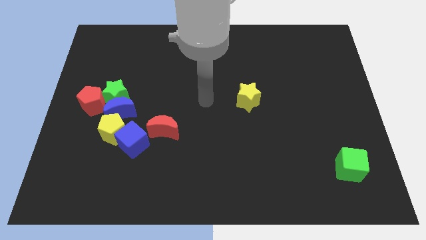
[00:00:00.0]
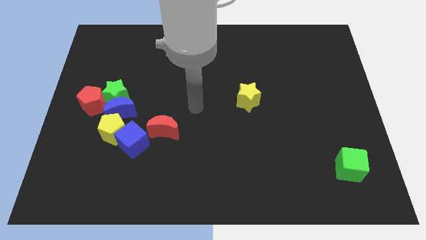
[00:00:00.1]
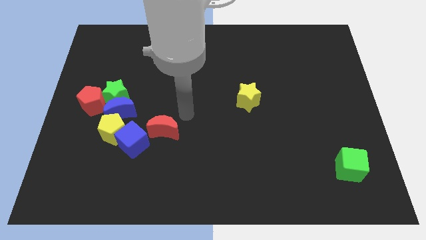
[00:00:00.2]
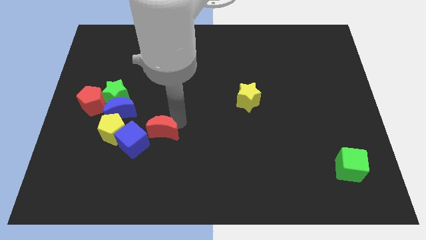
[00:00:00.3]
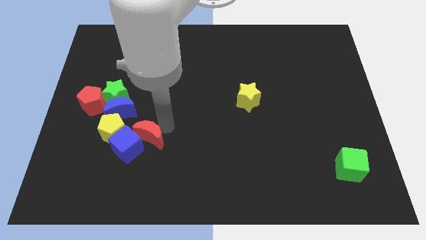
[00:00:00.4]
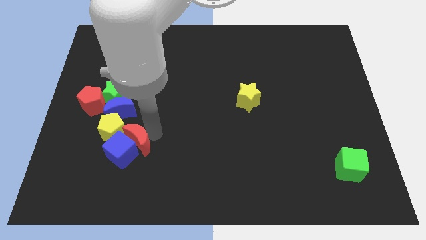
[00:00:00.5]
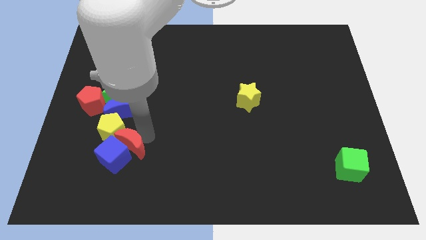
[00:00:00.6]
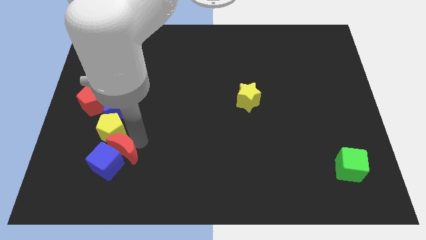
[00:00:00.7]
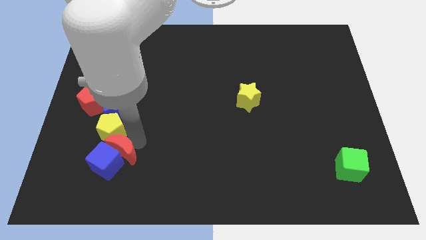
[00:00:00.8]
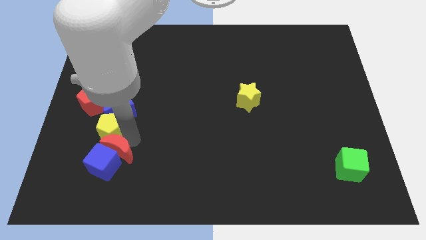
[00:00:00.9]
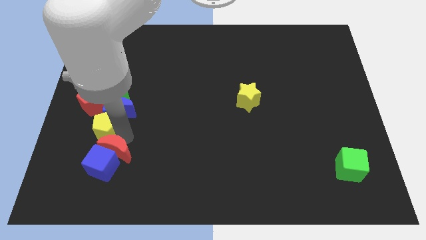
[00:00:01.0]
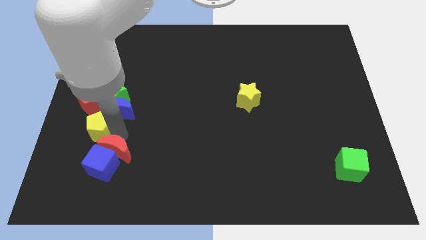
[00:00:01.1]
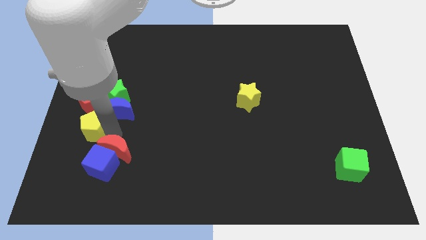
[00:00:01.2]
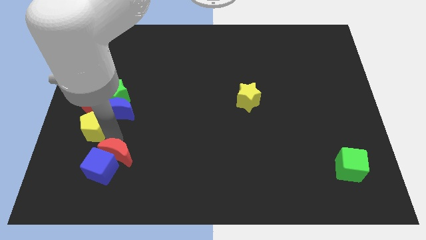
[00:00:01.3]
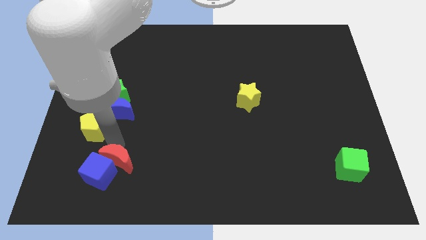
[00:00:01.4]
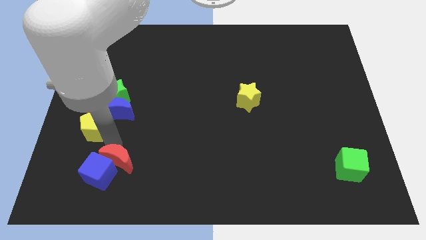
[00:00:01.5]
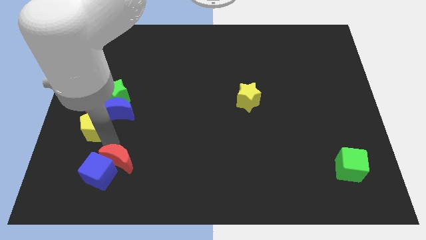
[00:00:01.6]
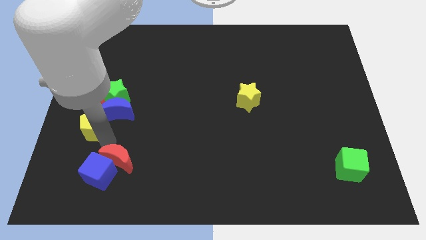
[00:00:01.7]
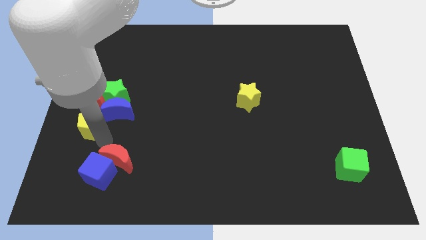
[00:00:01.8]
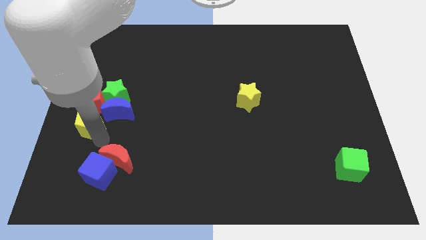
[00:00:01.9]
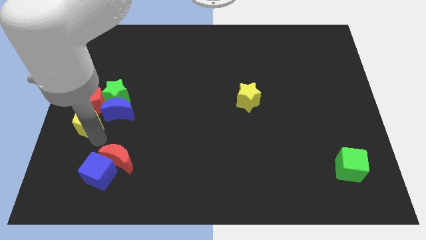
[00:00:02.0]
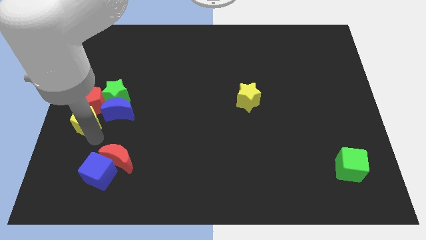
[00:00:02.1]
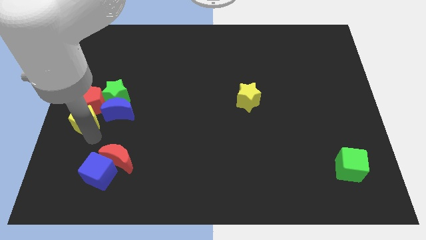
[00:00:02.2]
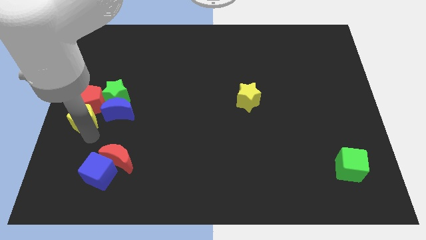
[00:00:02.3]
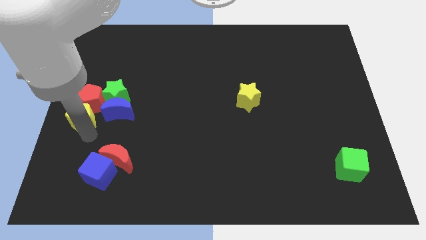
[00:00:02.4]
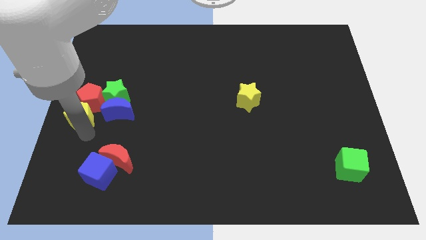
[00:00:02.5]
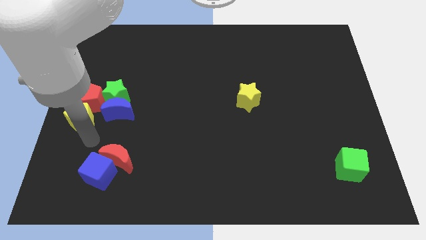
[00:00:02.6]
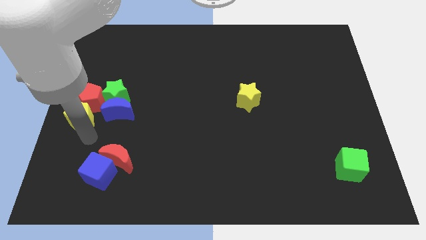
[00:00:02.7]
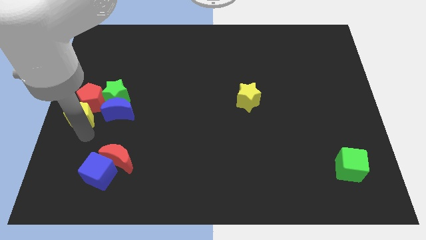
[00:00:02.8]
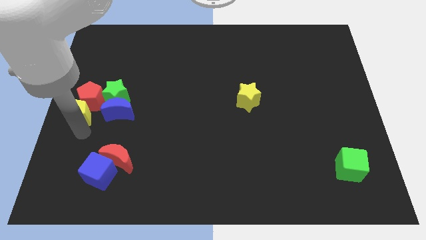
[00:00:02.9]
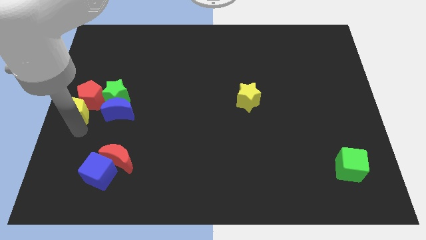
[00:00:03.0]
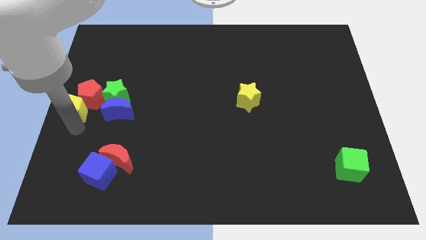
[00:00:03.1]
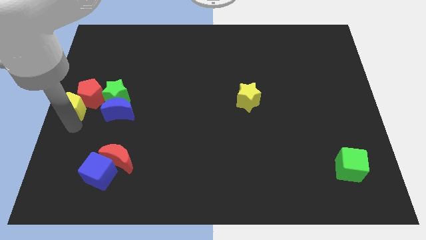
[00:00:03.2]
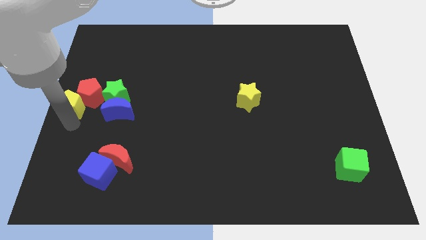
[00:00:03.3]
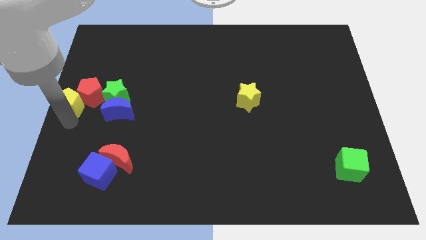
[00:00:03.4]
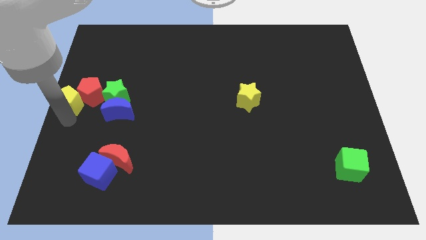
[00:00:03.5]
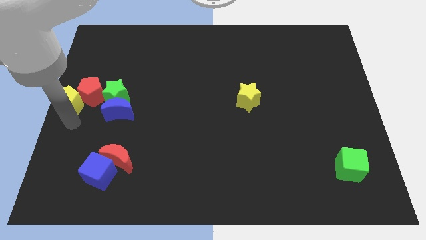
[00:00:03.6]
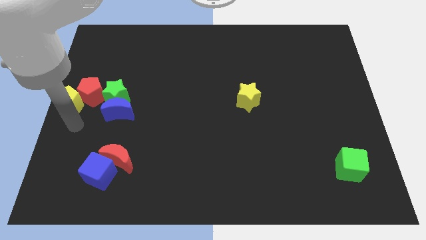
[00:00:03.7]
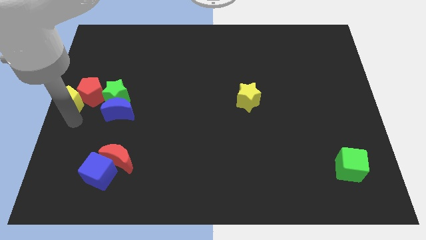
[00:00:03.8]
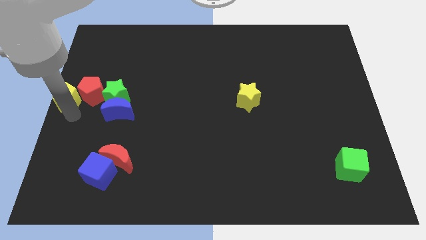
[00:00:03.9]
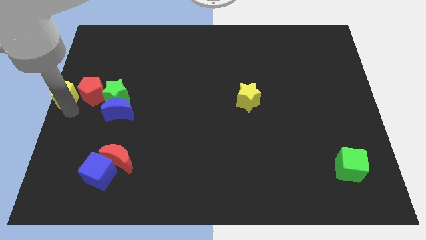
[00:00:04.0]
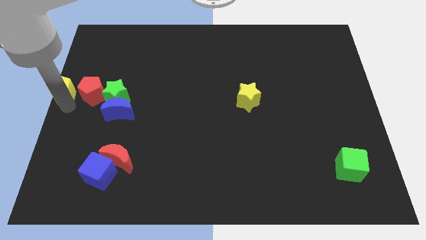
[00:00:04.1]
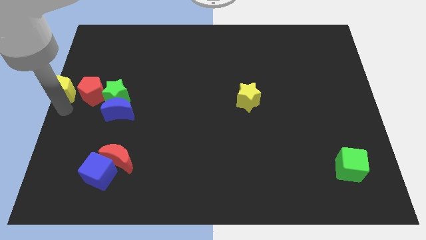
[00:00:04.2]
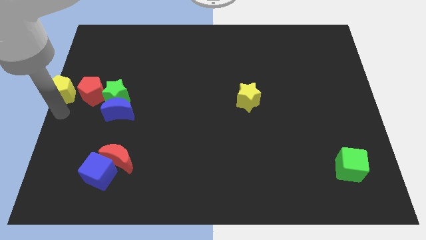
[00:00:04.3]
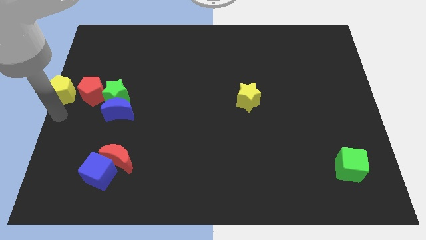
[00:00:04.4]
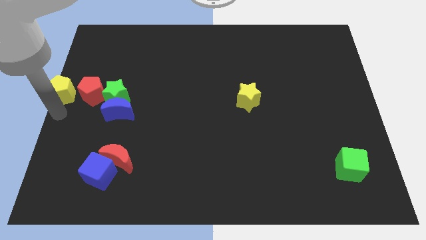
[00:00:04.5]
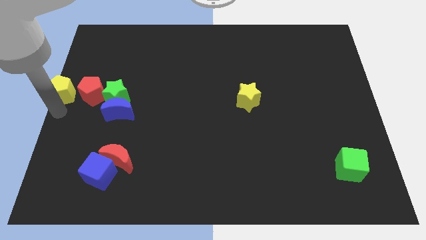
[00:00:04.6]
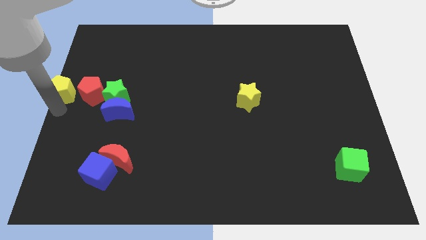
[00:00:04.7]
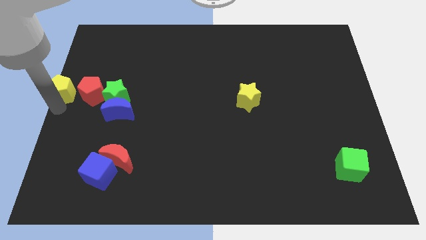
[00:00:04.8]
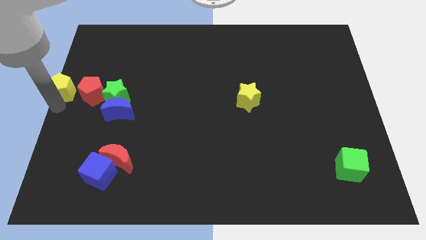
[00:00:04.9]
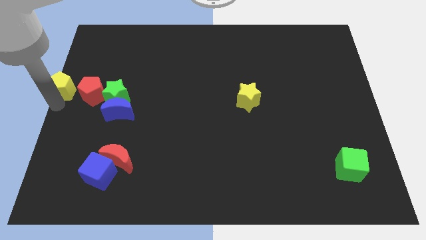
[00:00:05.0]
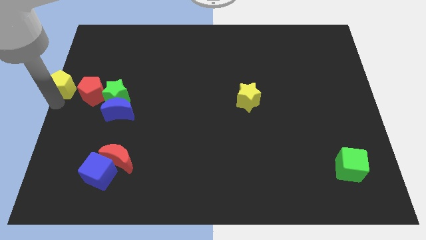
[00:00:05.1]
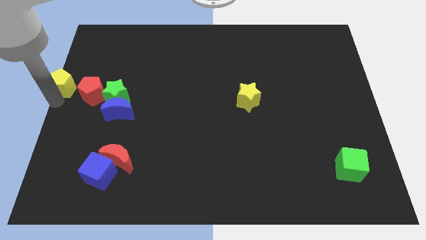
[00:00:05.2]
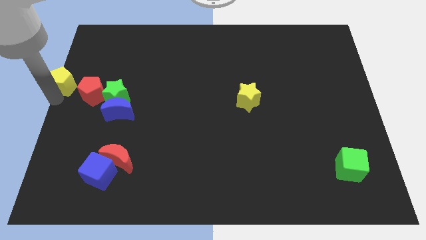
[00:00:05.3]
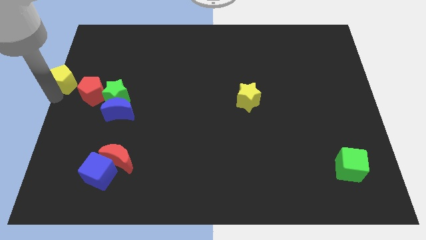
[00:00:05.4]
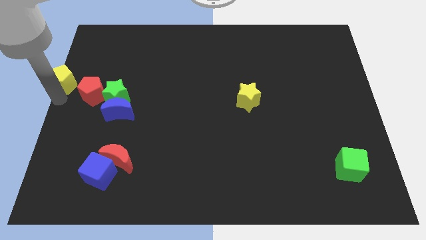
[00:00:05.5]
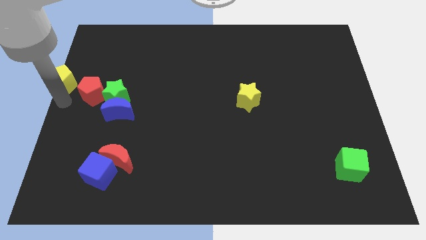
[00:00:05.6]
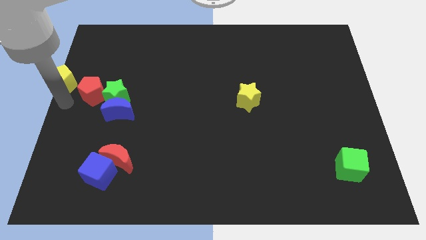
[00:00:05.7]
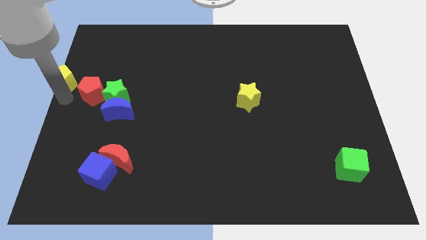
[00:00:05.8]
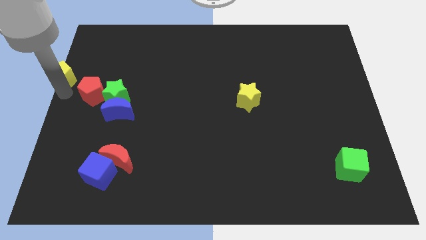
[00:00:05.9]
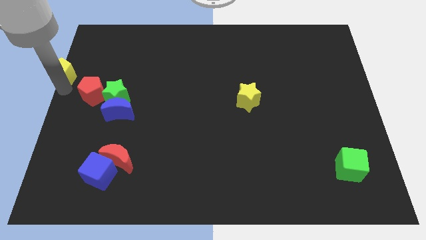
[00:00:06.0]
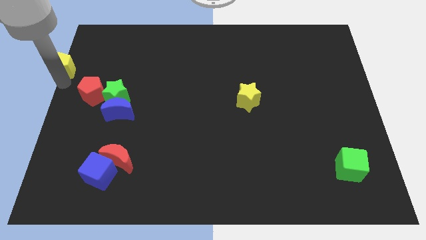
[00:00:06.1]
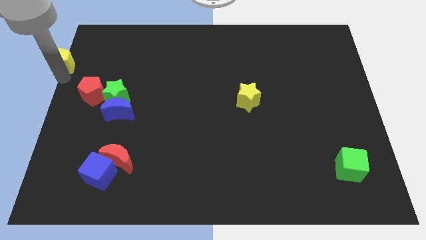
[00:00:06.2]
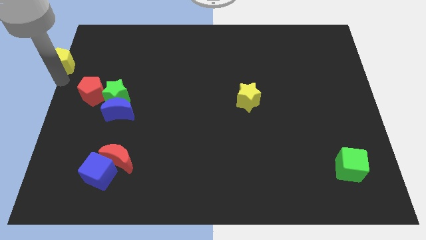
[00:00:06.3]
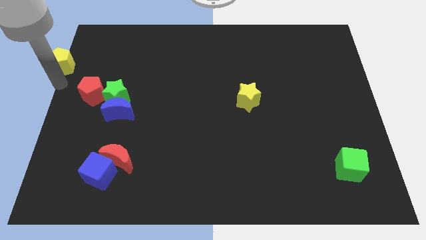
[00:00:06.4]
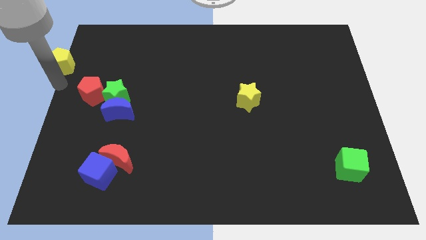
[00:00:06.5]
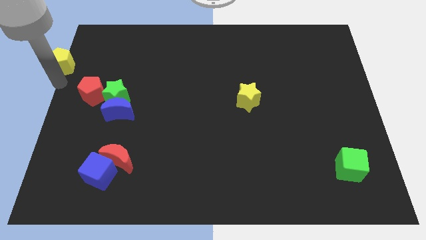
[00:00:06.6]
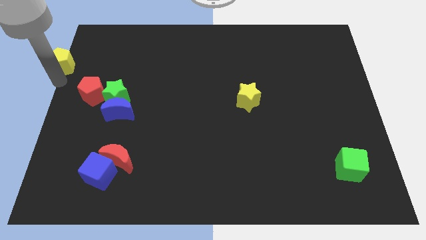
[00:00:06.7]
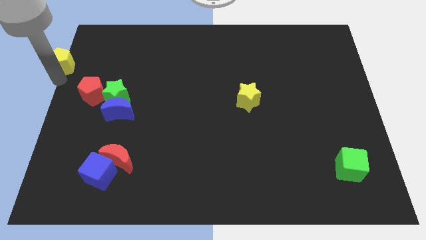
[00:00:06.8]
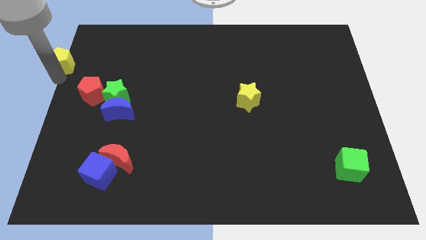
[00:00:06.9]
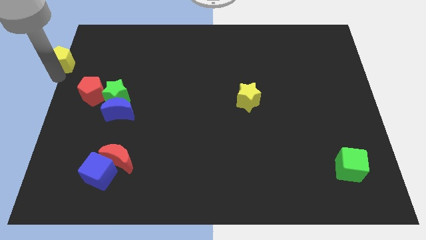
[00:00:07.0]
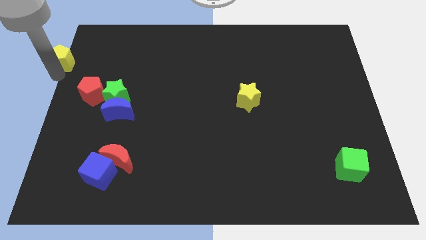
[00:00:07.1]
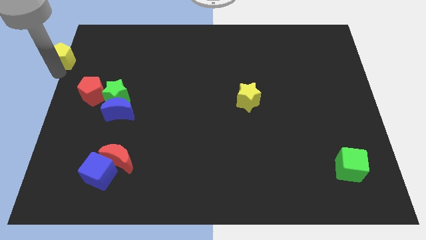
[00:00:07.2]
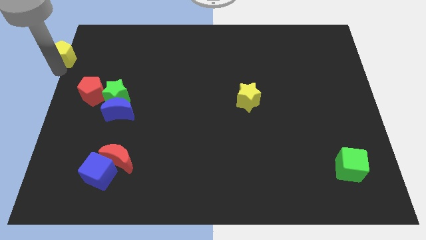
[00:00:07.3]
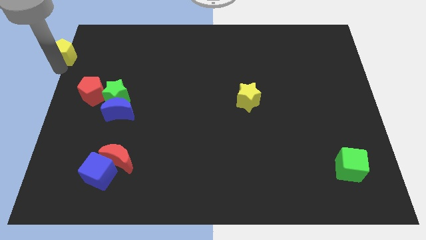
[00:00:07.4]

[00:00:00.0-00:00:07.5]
slide the yellow pentagon to the top left corner
